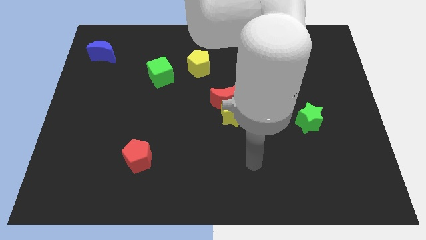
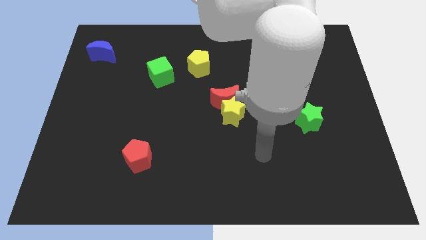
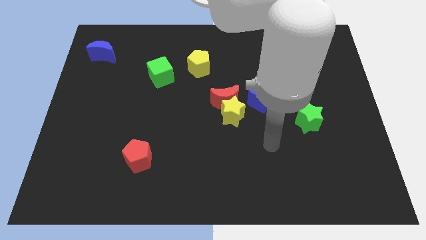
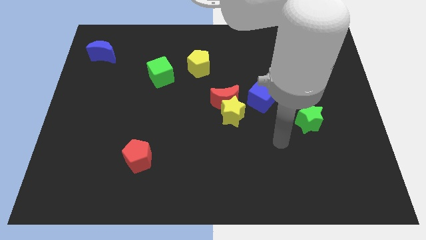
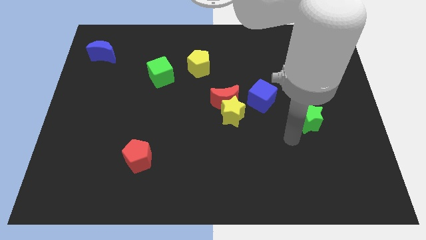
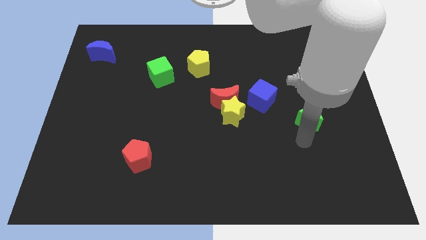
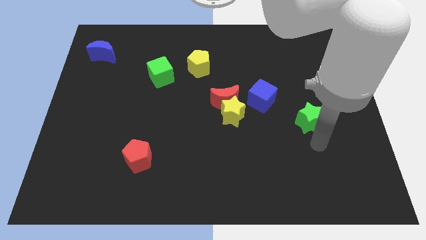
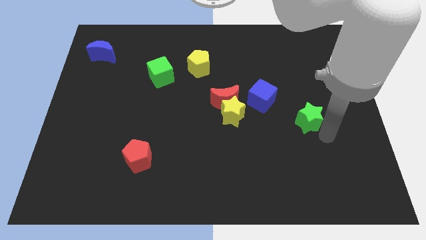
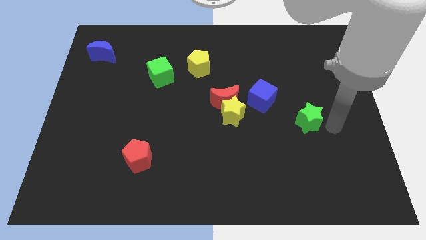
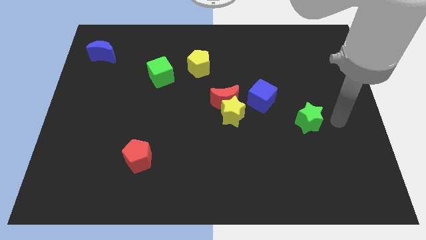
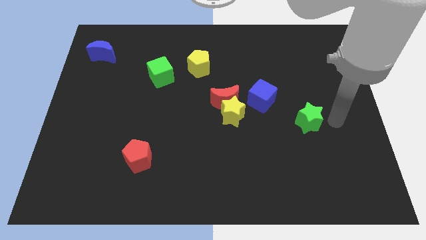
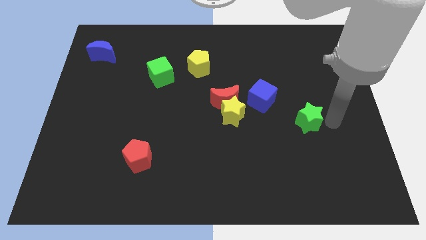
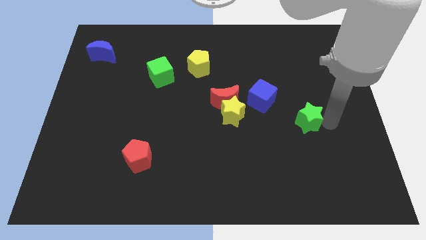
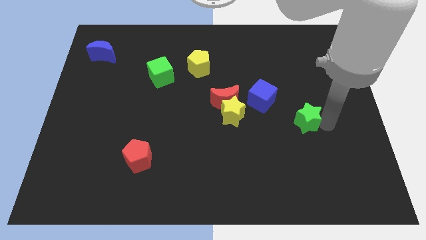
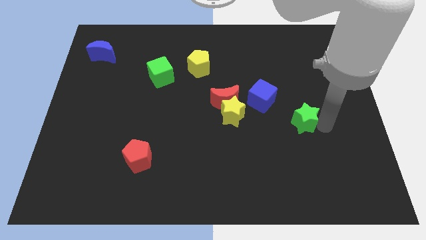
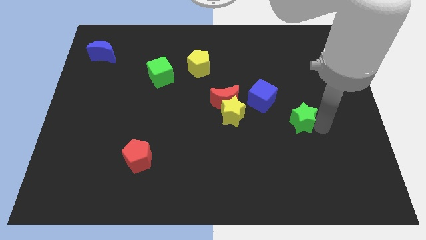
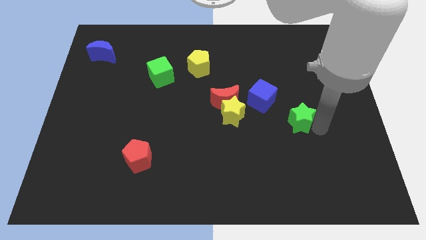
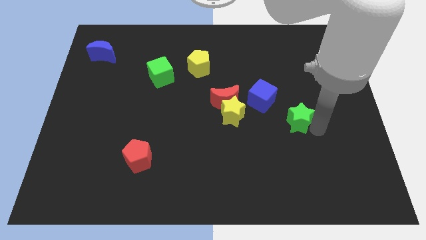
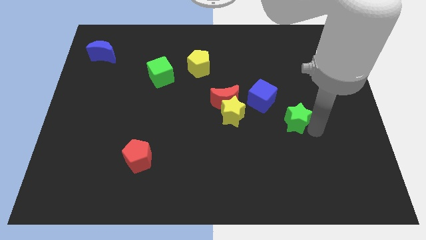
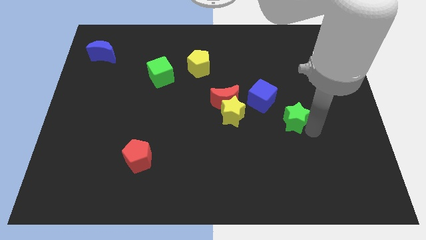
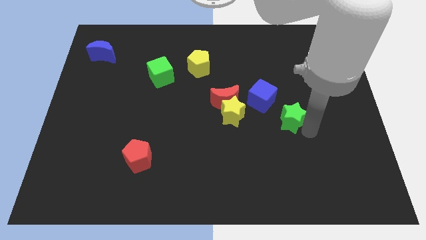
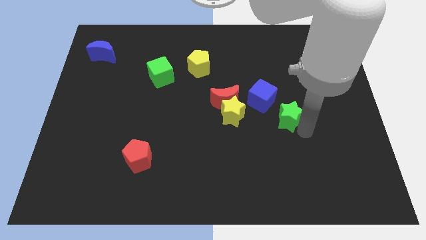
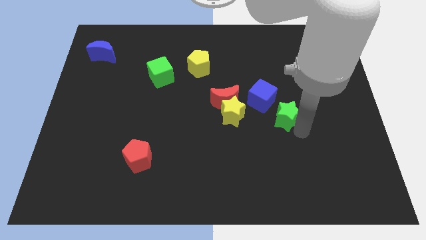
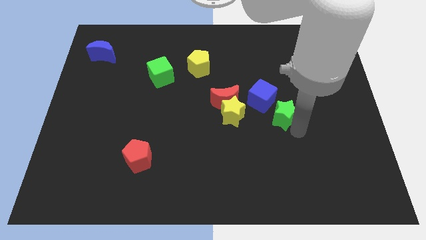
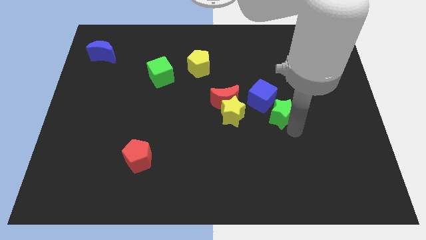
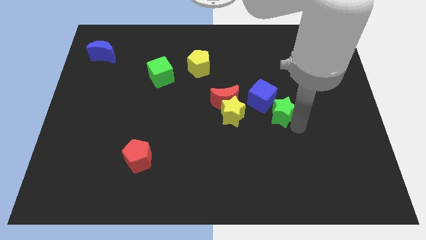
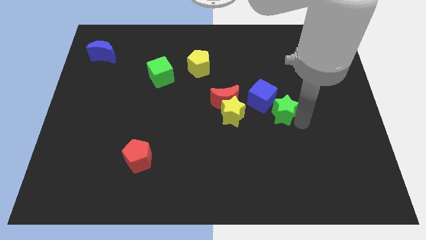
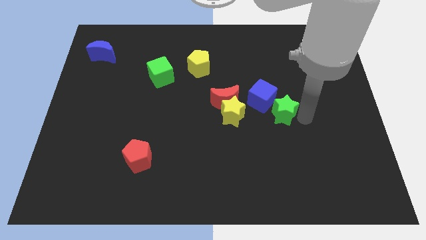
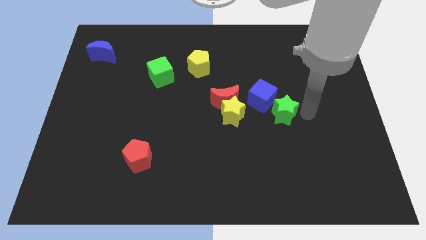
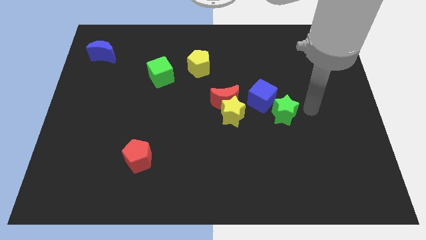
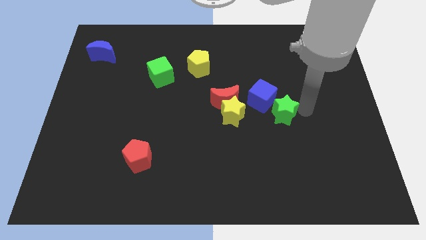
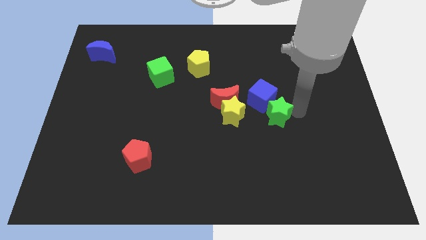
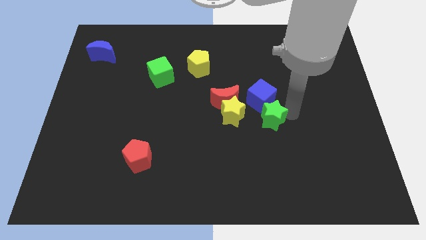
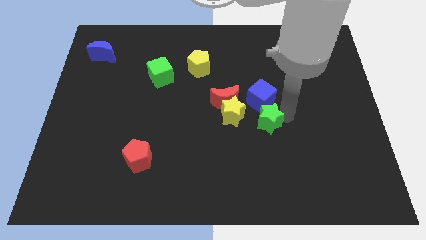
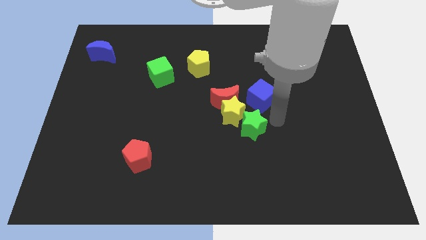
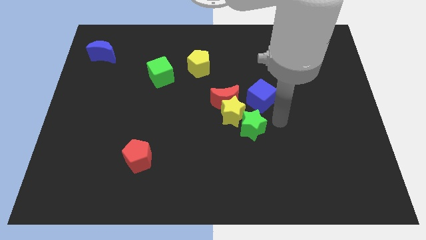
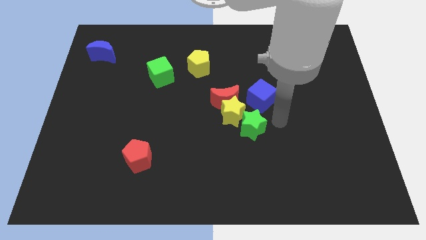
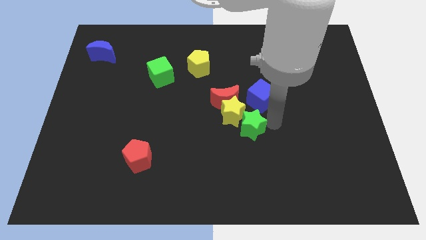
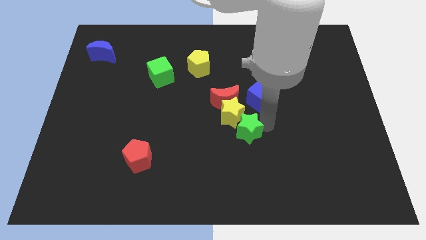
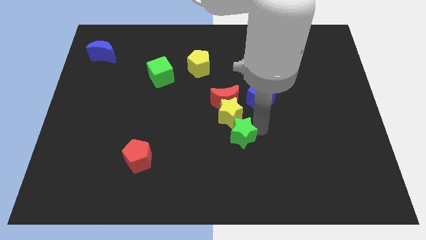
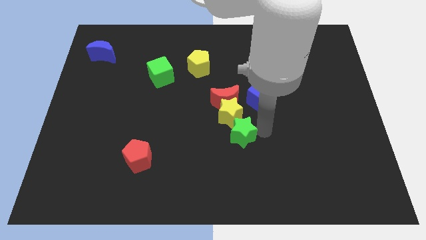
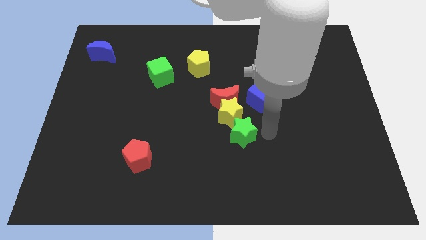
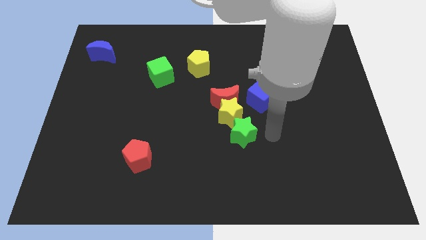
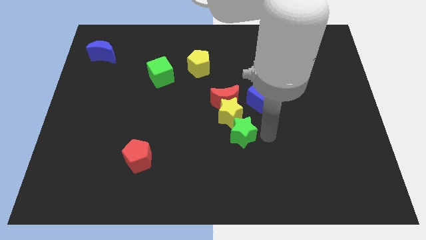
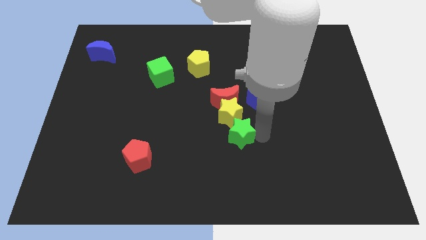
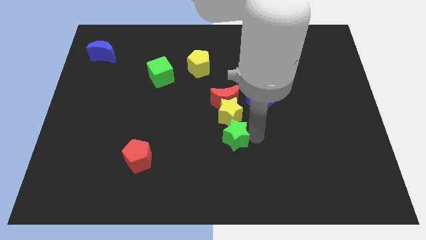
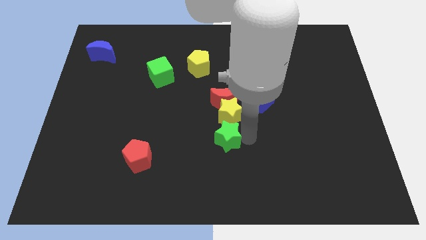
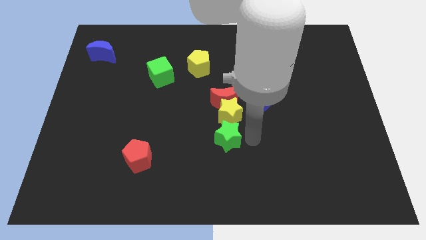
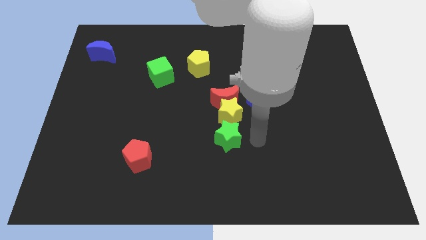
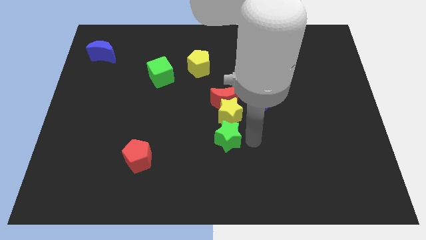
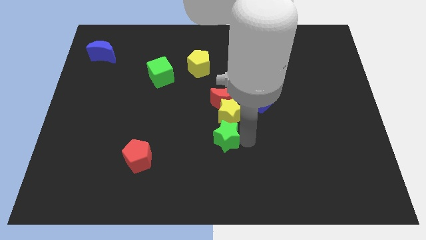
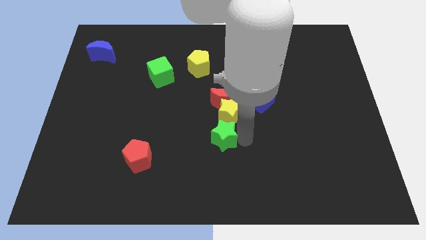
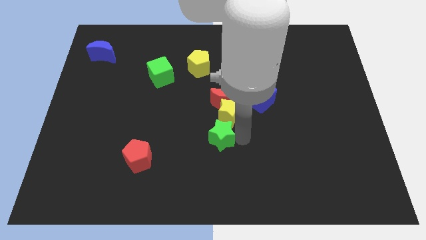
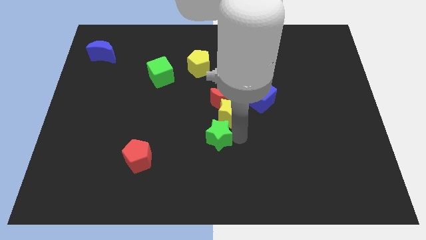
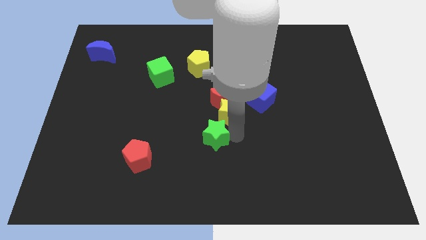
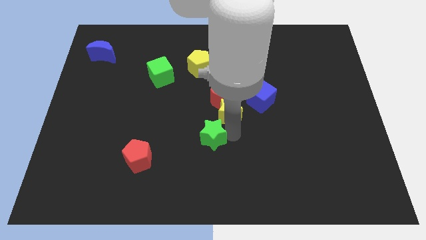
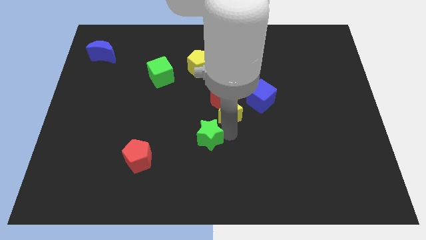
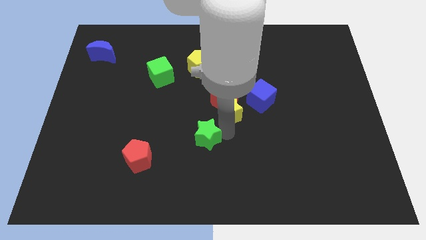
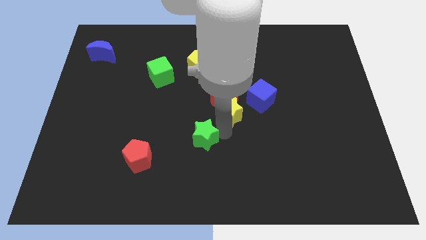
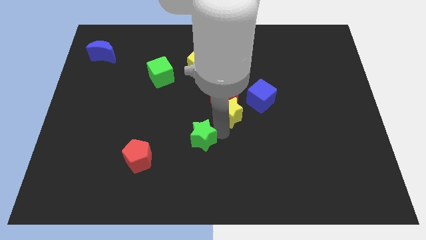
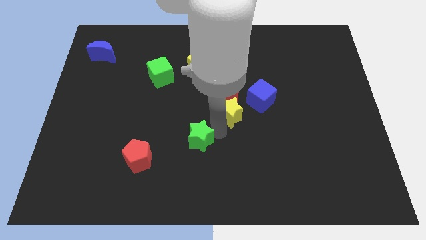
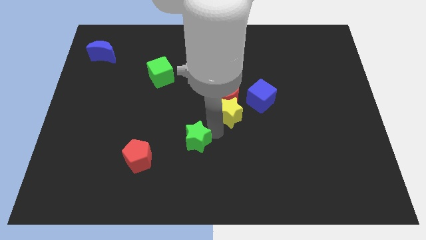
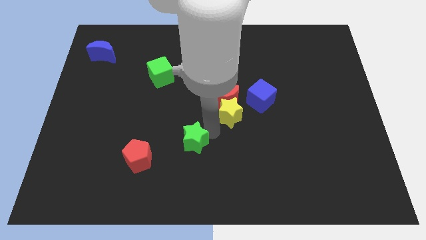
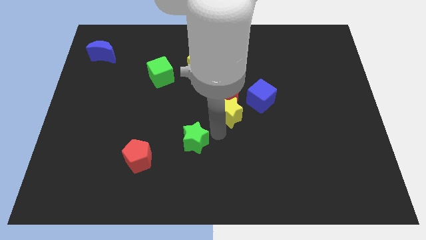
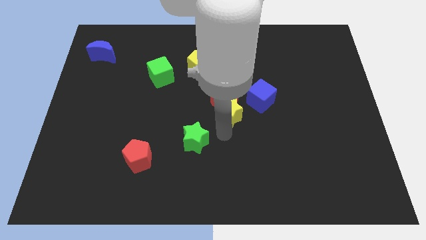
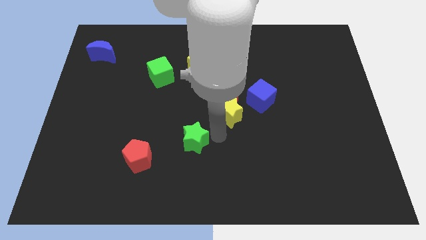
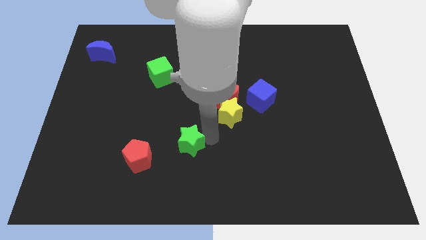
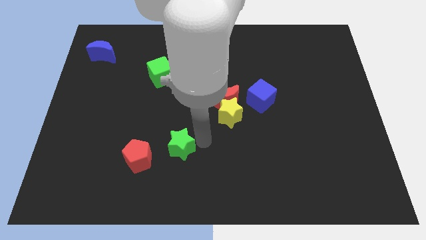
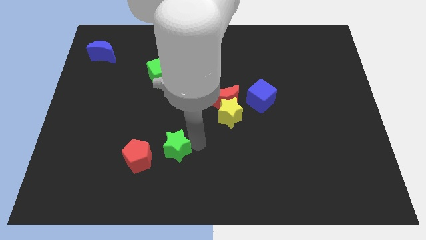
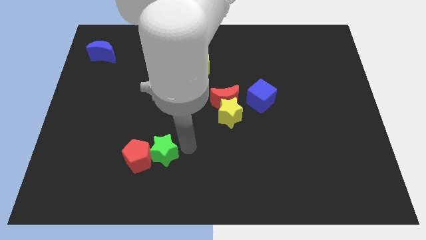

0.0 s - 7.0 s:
slide the green star towards the red pentagon
